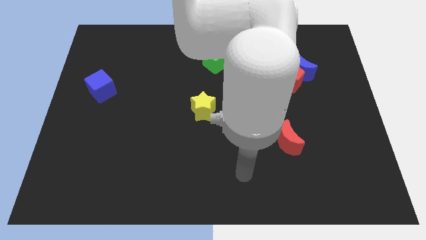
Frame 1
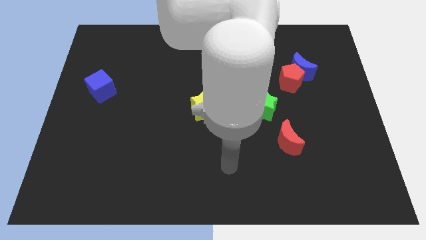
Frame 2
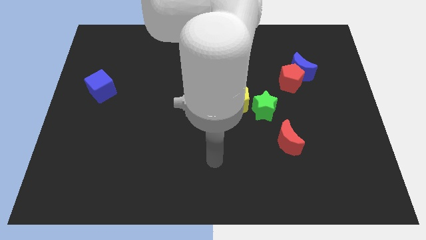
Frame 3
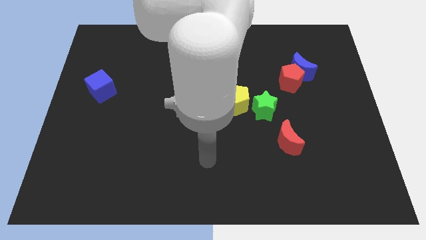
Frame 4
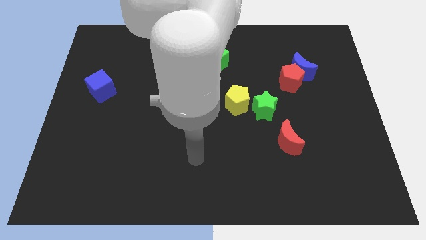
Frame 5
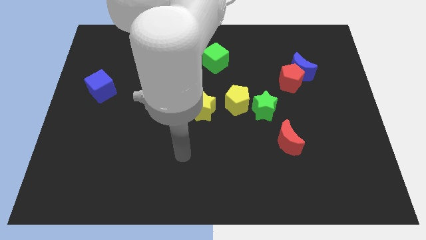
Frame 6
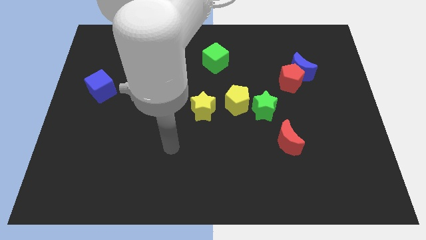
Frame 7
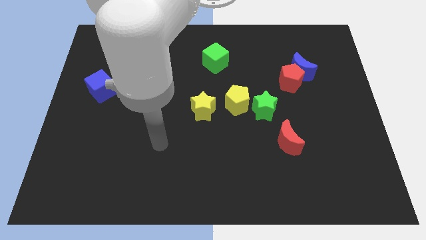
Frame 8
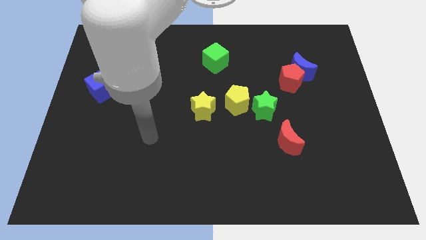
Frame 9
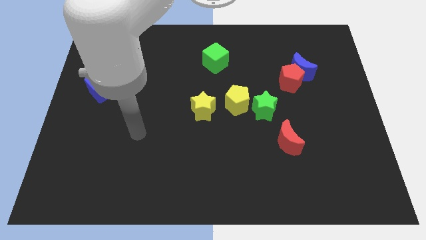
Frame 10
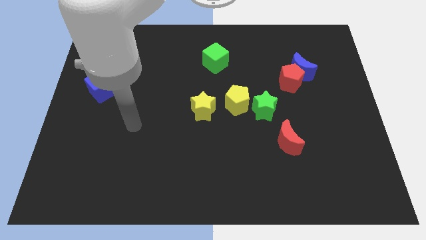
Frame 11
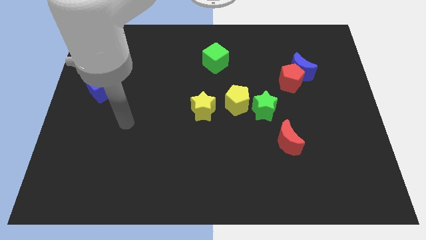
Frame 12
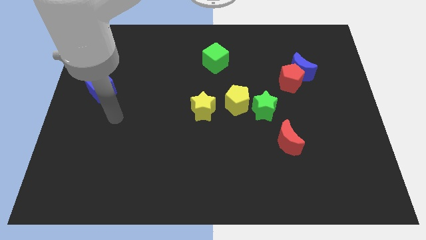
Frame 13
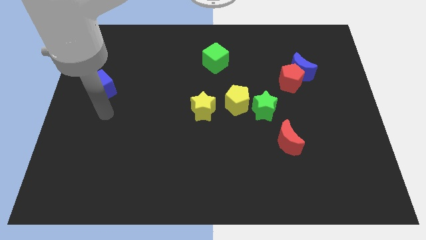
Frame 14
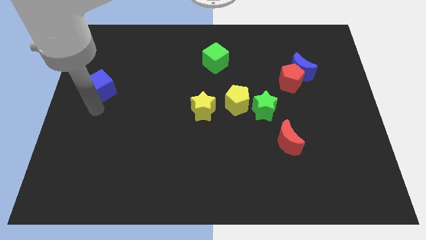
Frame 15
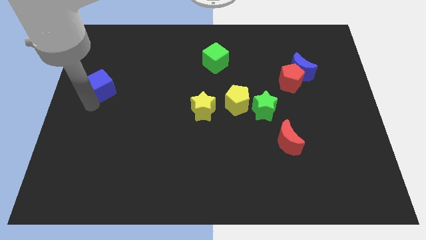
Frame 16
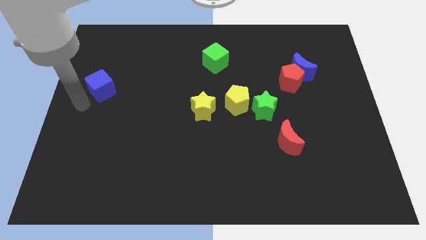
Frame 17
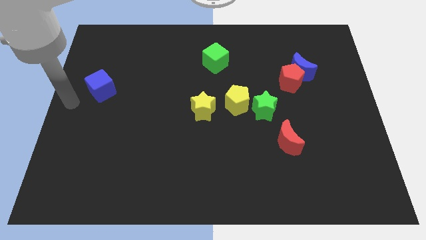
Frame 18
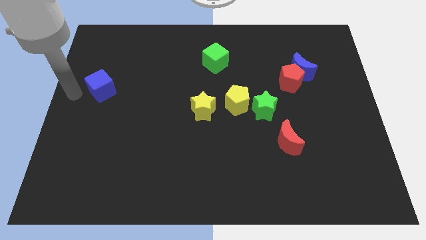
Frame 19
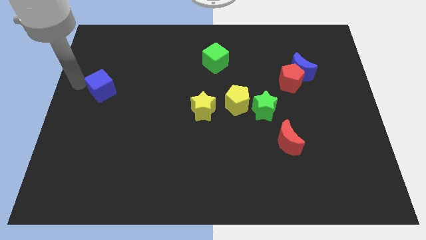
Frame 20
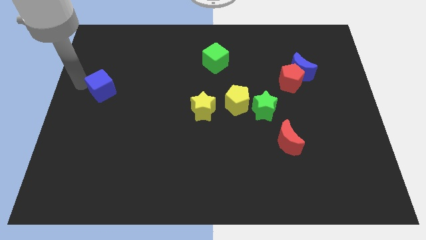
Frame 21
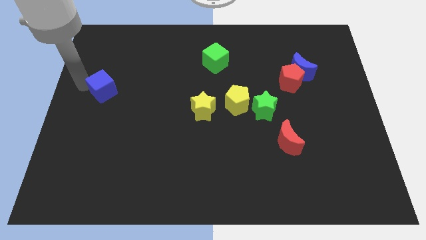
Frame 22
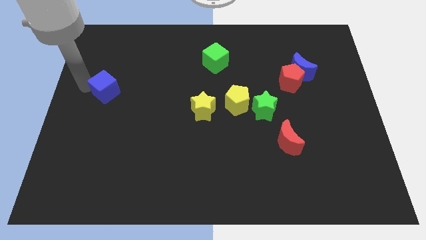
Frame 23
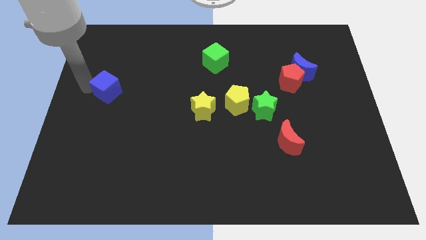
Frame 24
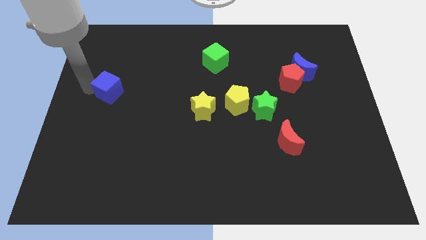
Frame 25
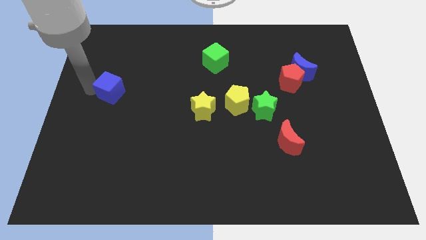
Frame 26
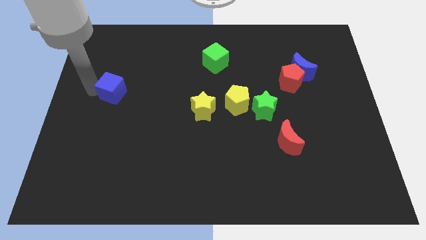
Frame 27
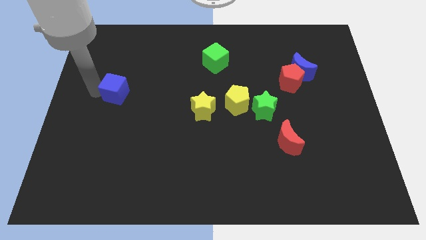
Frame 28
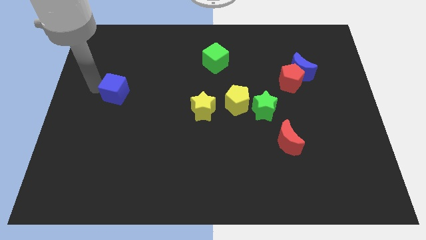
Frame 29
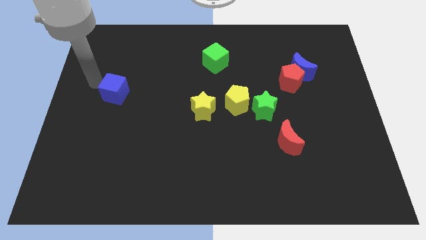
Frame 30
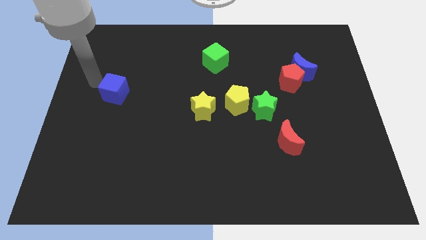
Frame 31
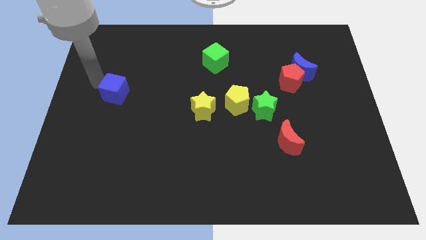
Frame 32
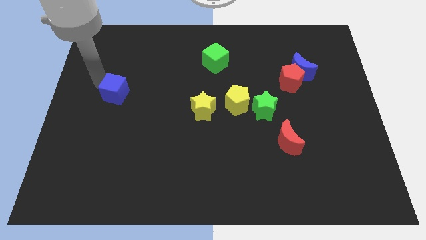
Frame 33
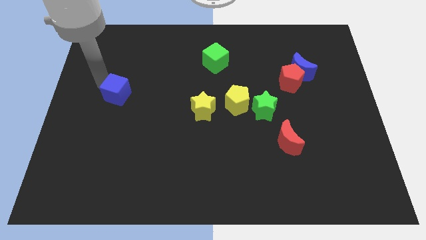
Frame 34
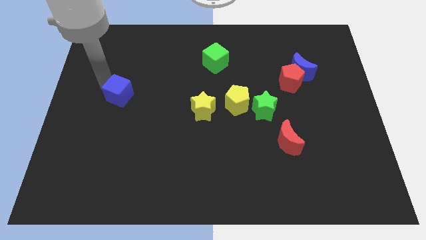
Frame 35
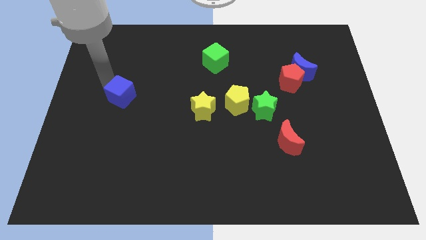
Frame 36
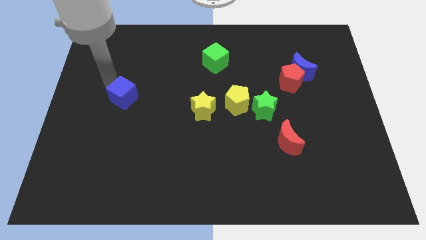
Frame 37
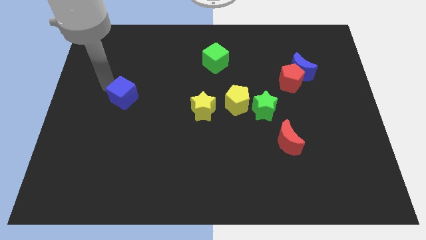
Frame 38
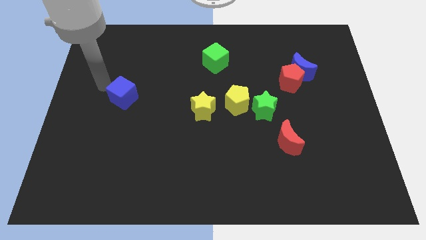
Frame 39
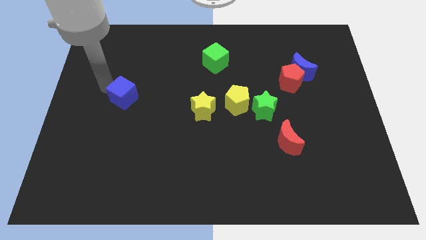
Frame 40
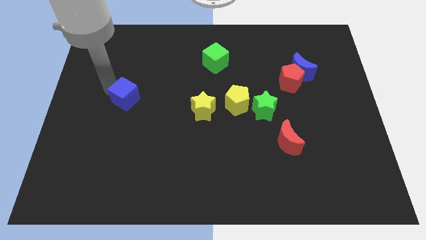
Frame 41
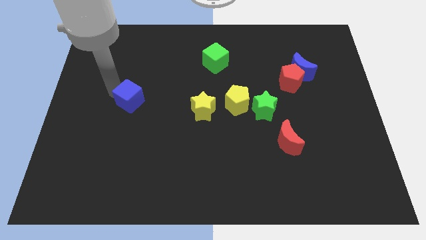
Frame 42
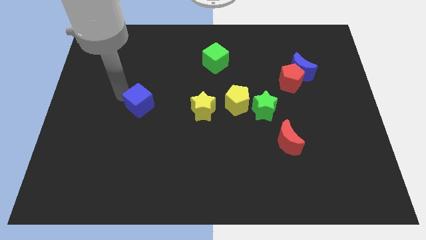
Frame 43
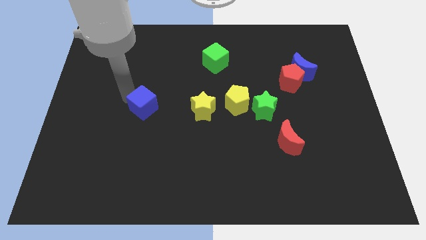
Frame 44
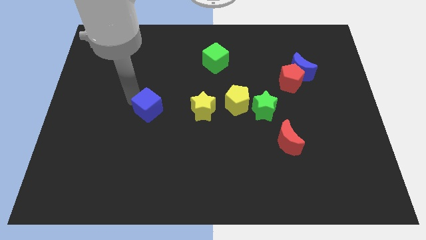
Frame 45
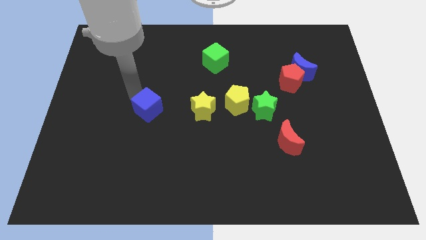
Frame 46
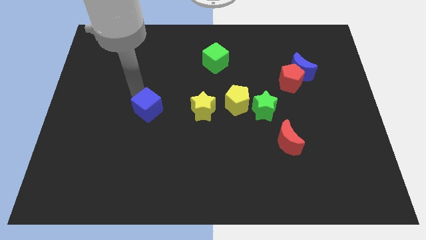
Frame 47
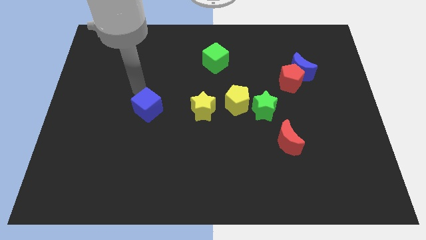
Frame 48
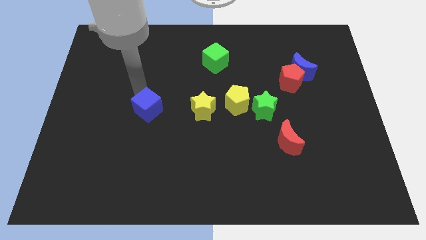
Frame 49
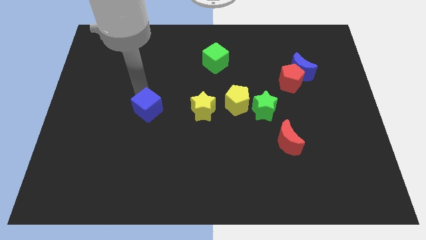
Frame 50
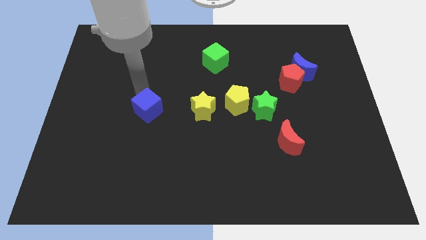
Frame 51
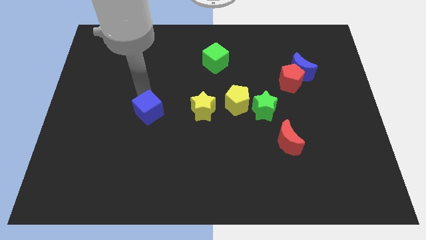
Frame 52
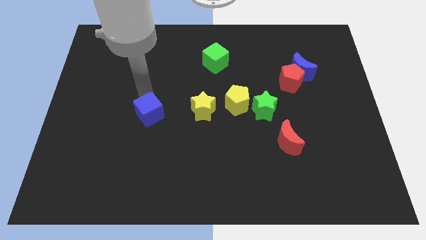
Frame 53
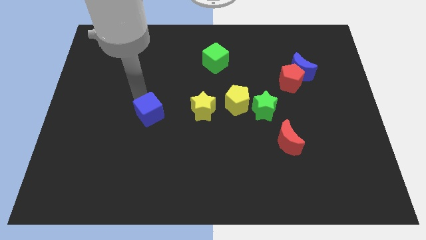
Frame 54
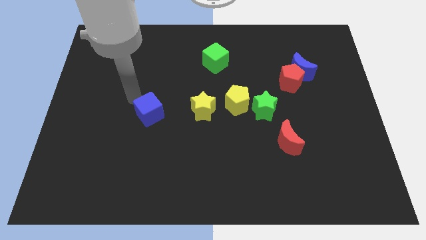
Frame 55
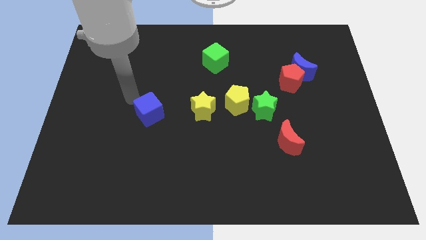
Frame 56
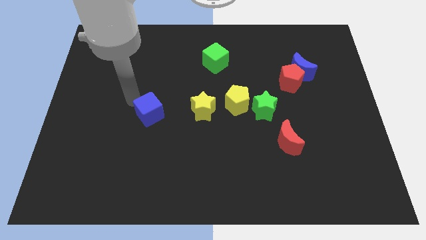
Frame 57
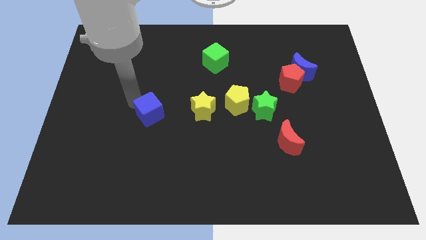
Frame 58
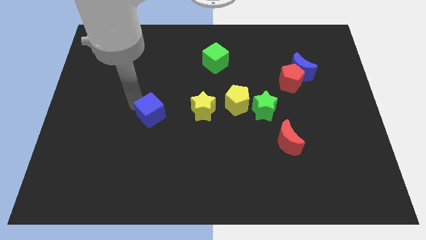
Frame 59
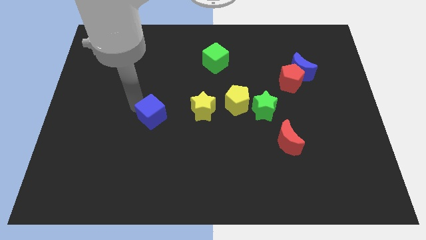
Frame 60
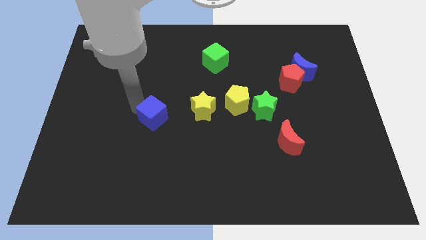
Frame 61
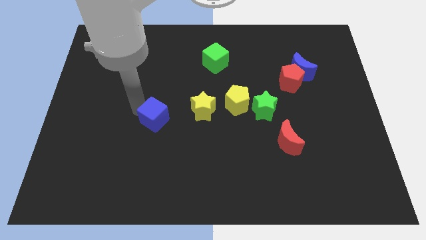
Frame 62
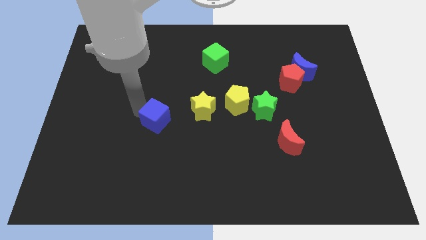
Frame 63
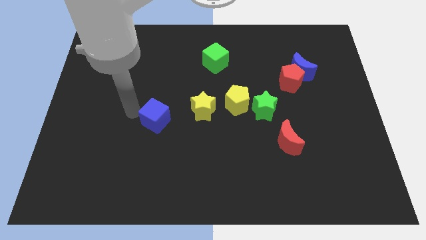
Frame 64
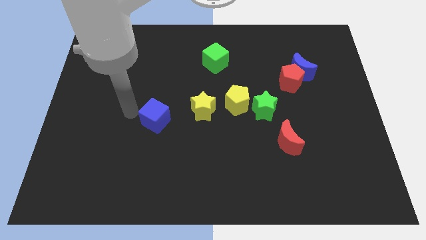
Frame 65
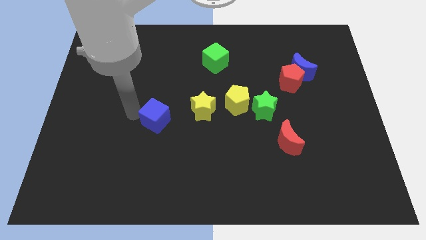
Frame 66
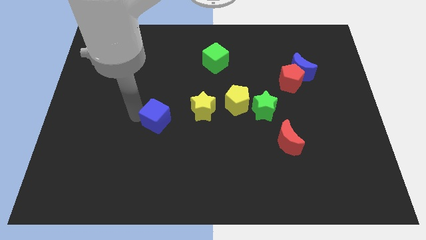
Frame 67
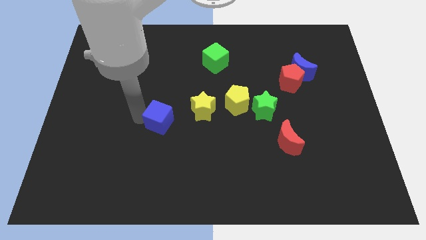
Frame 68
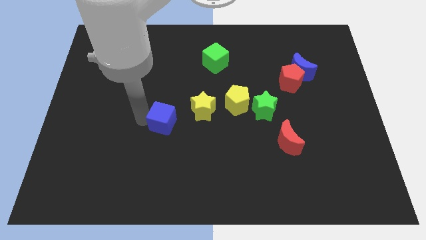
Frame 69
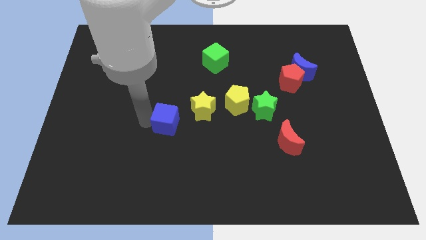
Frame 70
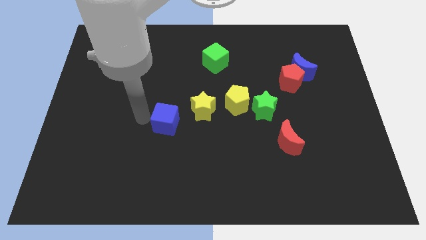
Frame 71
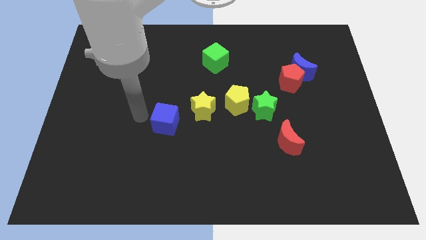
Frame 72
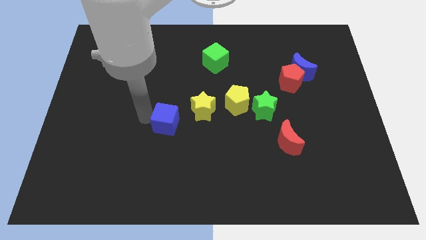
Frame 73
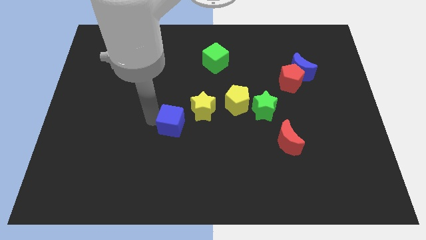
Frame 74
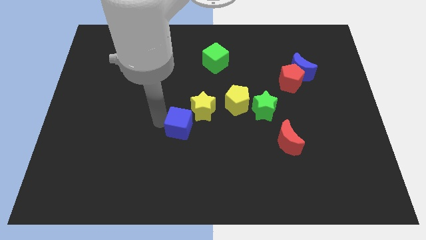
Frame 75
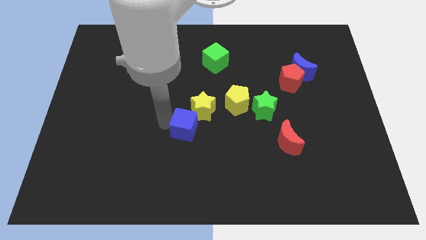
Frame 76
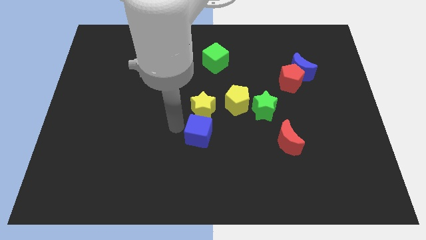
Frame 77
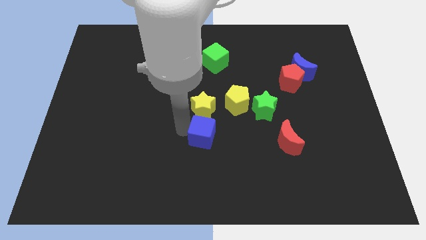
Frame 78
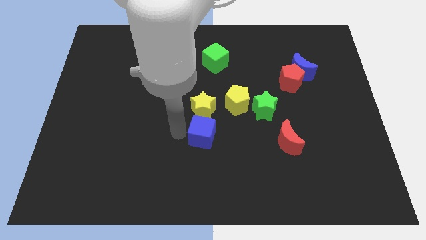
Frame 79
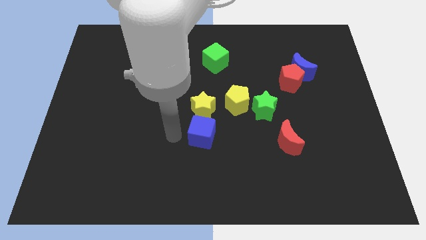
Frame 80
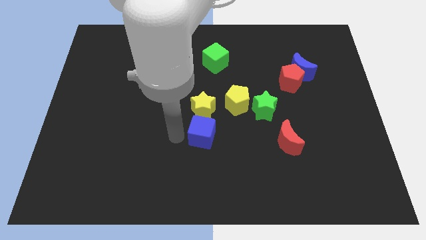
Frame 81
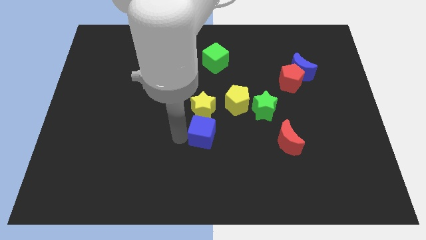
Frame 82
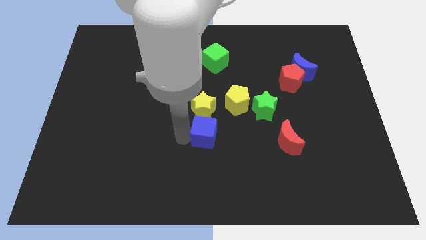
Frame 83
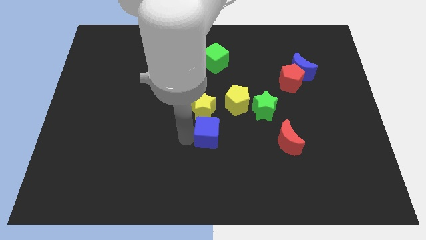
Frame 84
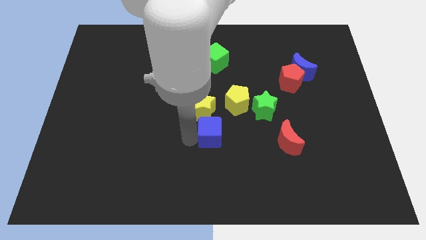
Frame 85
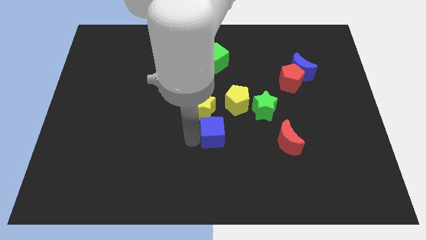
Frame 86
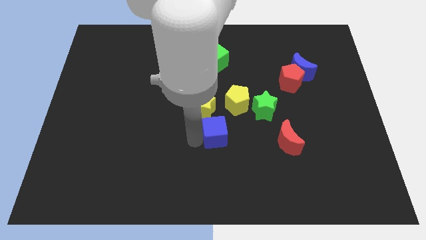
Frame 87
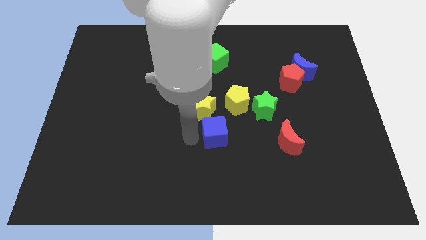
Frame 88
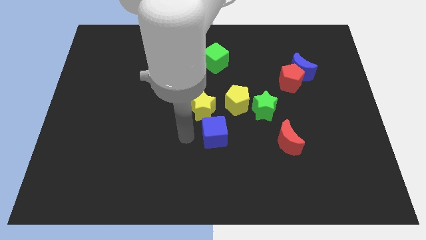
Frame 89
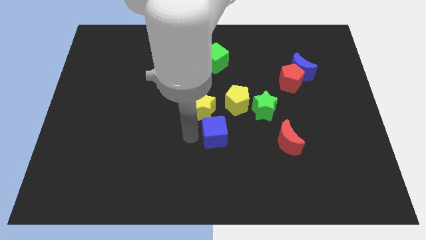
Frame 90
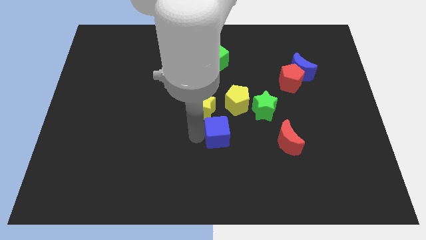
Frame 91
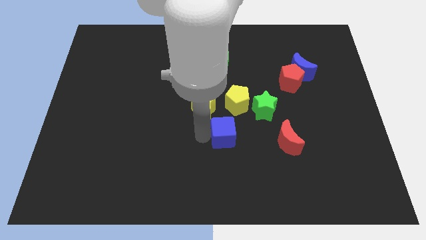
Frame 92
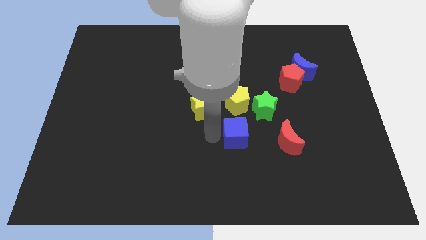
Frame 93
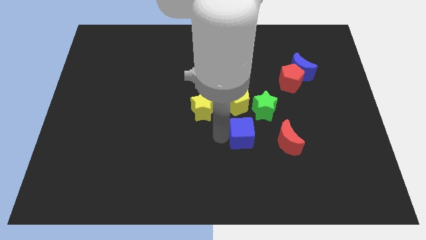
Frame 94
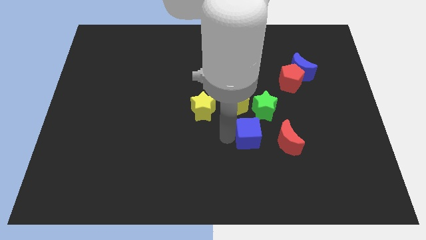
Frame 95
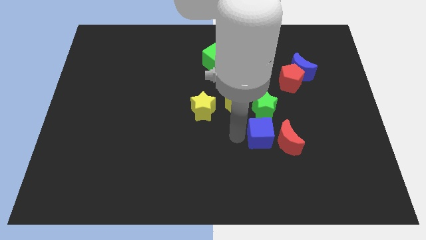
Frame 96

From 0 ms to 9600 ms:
slide the blue cube close to the red moon
